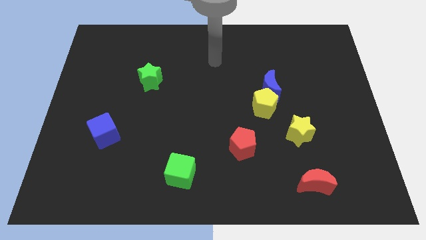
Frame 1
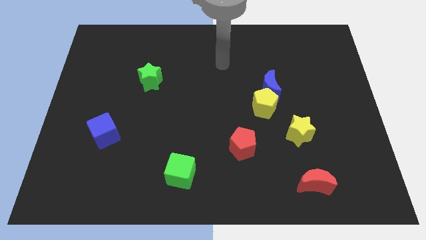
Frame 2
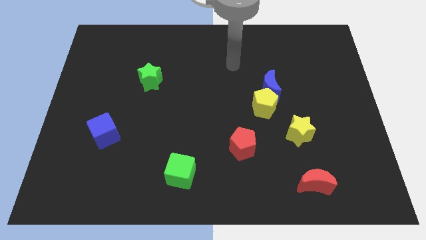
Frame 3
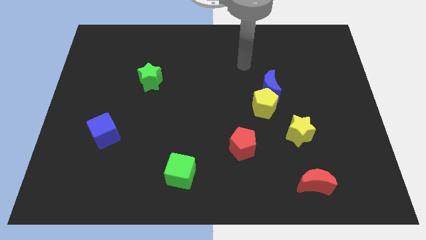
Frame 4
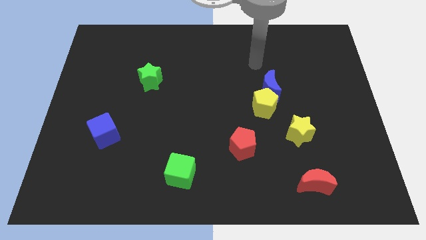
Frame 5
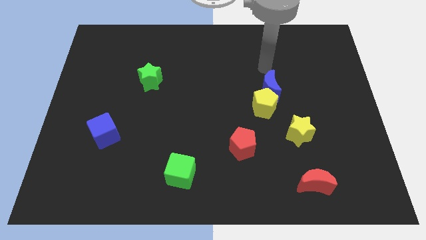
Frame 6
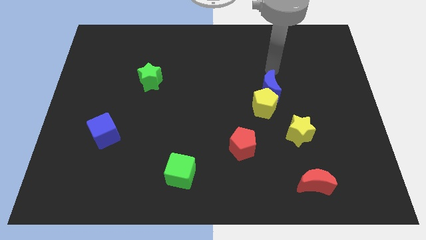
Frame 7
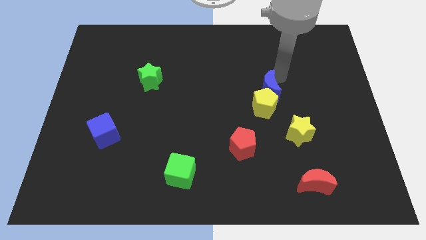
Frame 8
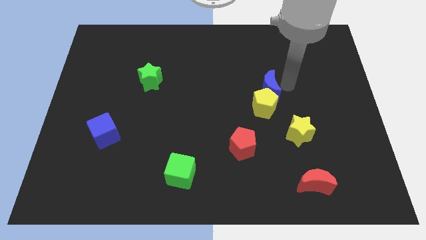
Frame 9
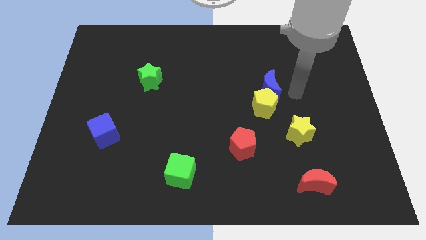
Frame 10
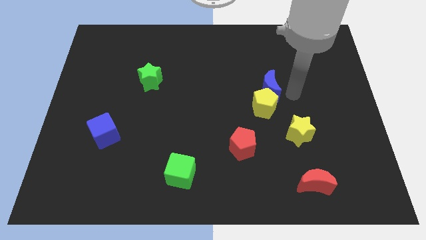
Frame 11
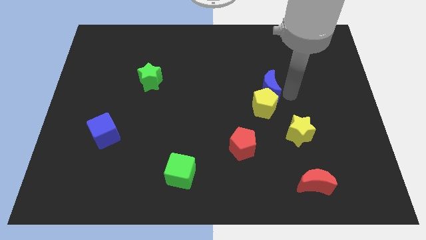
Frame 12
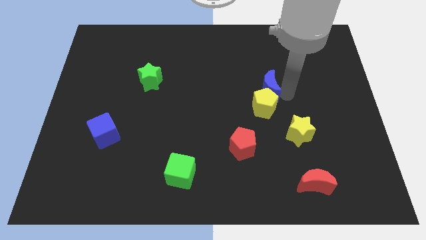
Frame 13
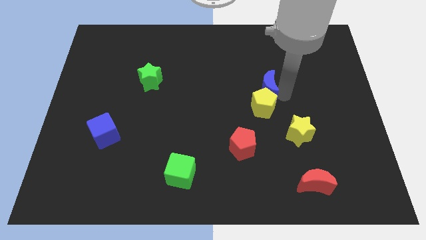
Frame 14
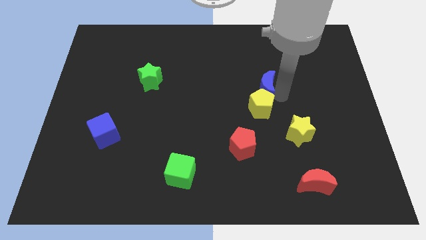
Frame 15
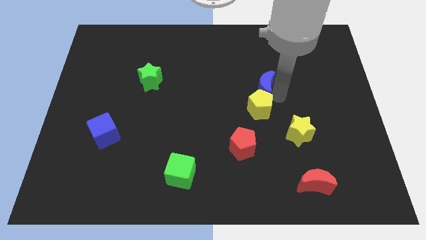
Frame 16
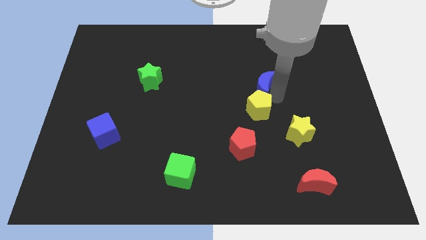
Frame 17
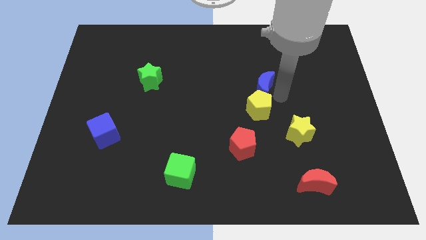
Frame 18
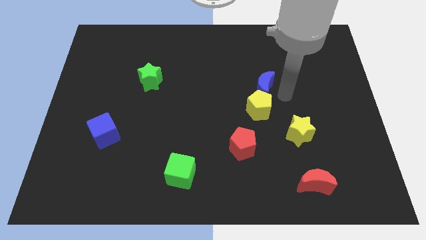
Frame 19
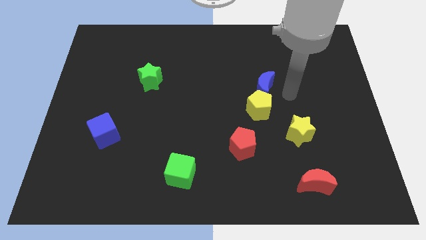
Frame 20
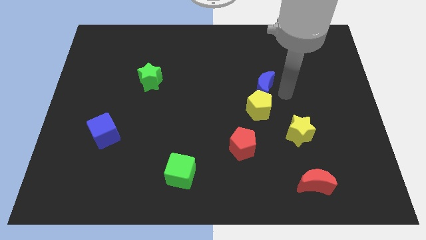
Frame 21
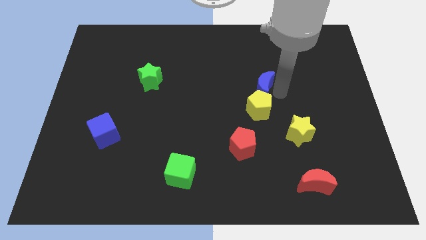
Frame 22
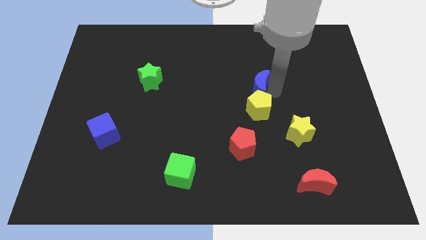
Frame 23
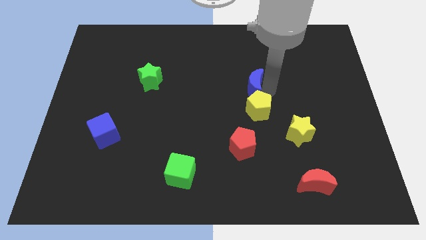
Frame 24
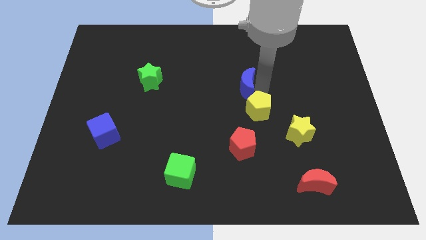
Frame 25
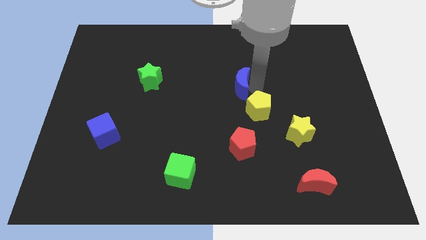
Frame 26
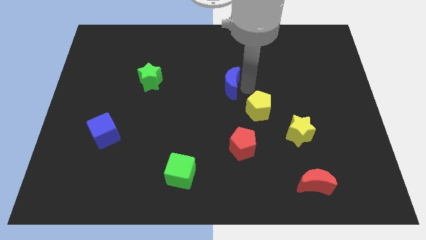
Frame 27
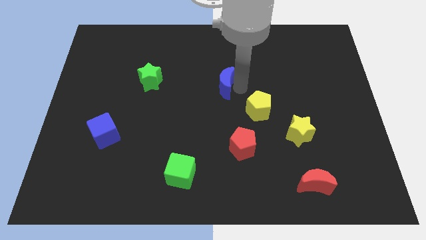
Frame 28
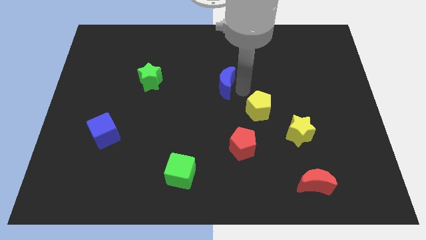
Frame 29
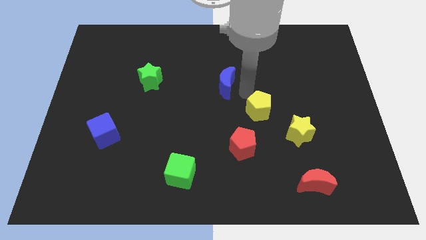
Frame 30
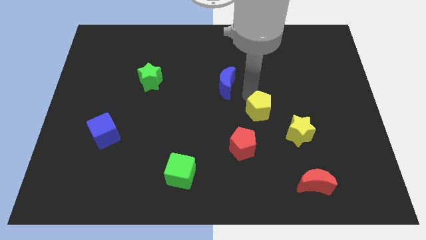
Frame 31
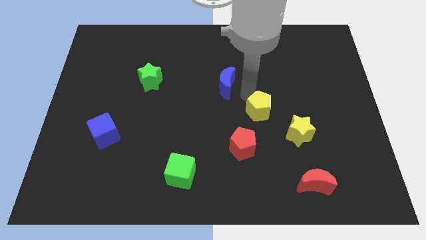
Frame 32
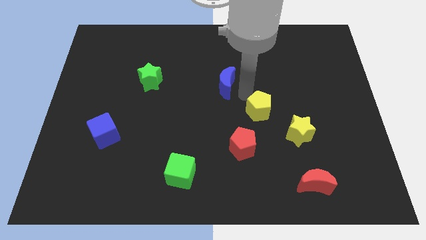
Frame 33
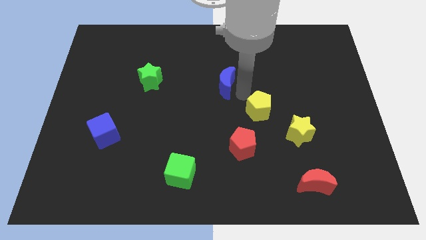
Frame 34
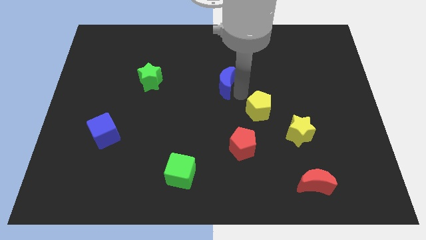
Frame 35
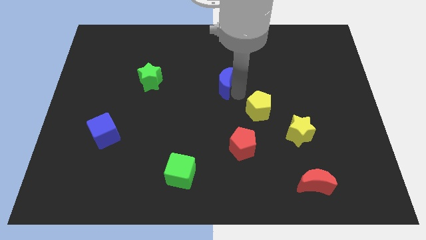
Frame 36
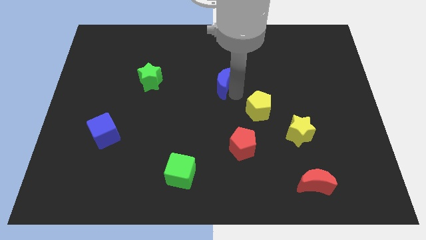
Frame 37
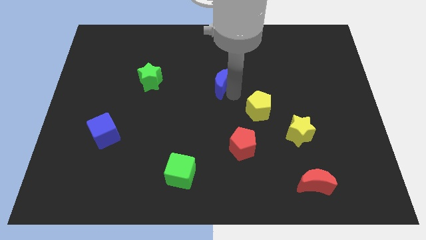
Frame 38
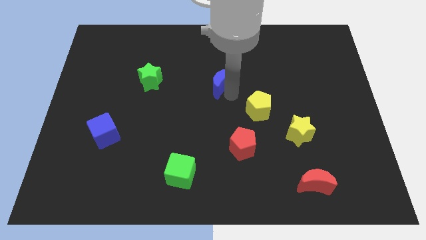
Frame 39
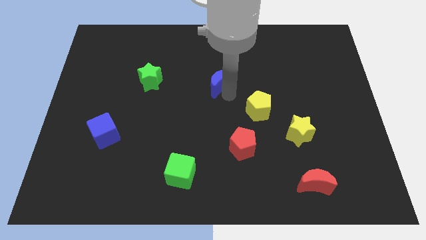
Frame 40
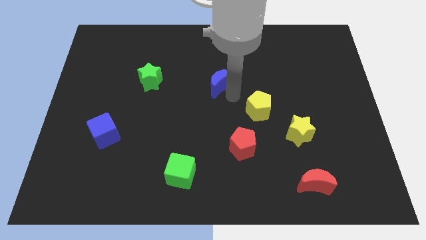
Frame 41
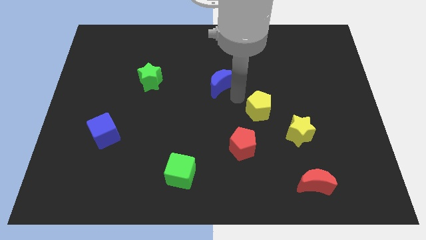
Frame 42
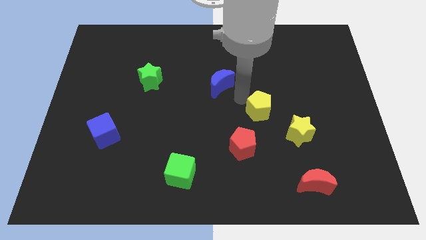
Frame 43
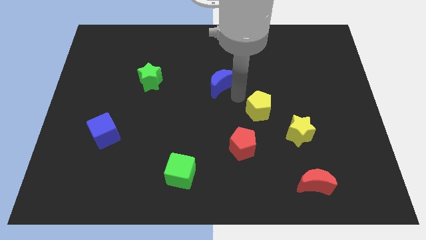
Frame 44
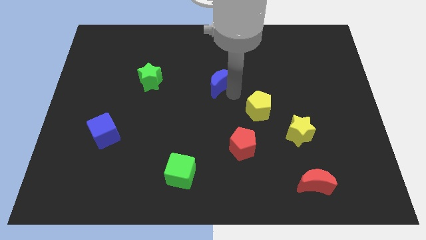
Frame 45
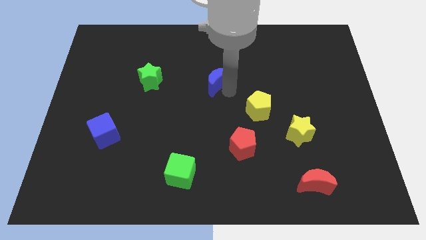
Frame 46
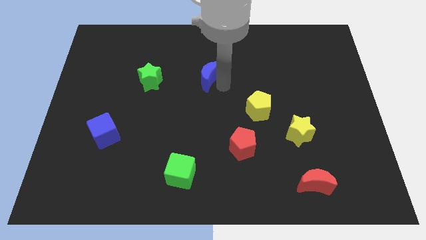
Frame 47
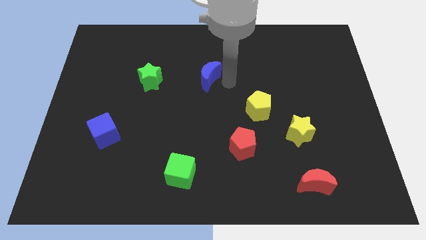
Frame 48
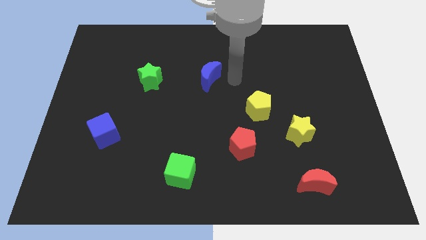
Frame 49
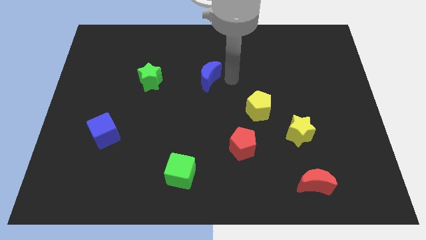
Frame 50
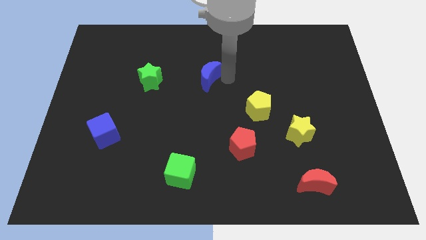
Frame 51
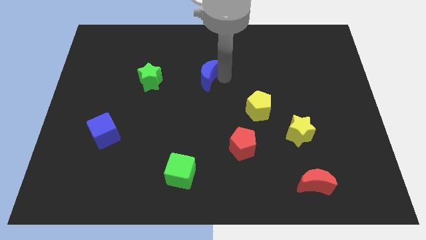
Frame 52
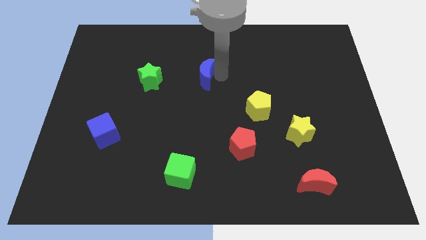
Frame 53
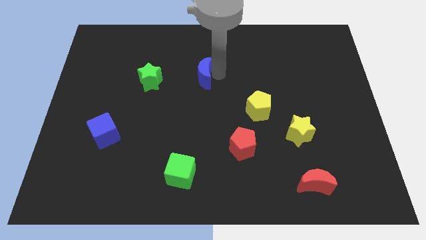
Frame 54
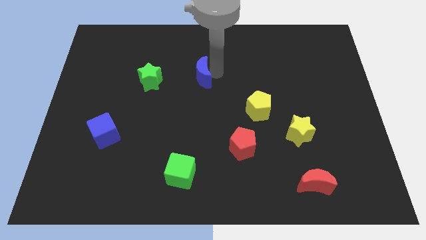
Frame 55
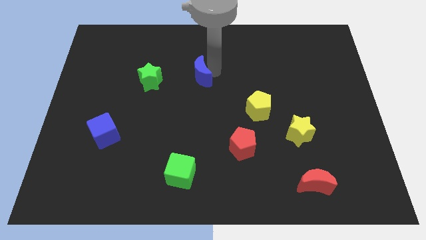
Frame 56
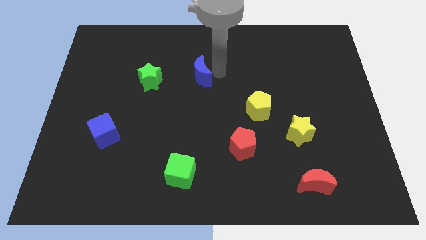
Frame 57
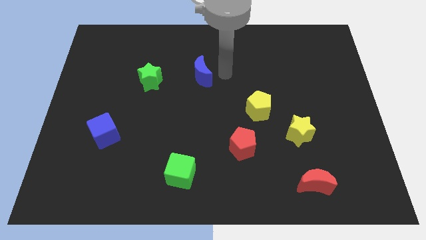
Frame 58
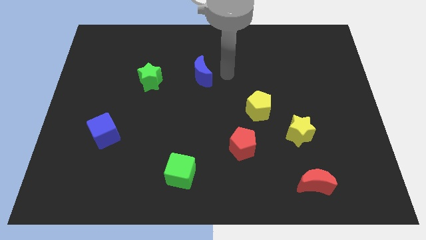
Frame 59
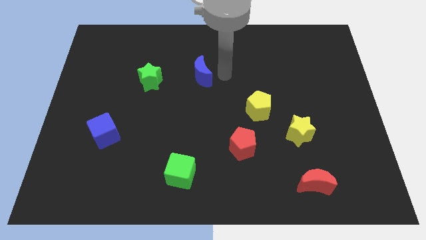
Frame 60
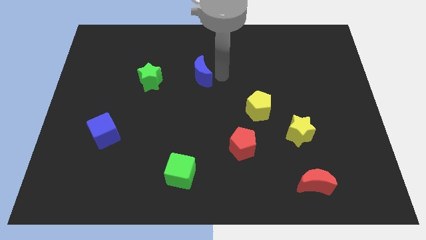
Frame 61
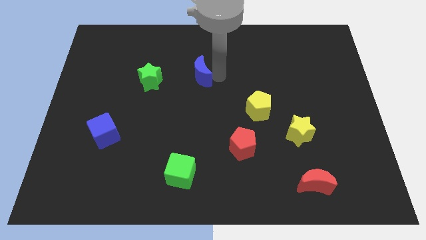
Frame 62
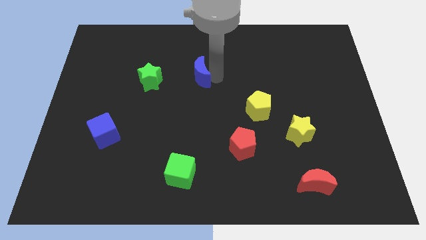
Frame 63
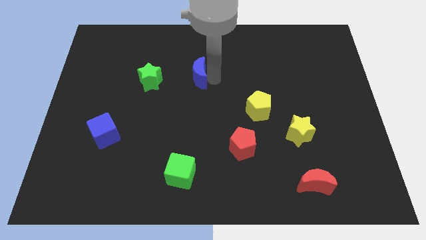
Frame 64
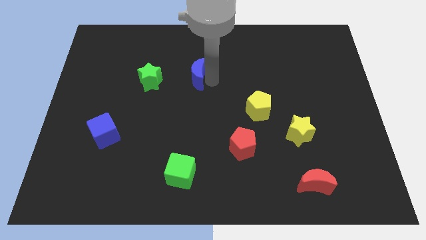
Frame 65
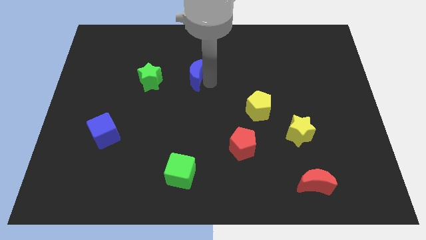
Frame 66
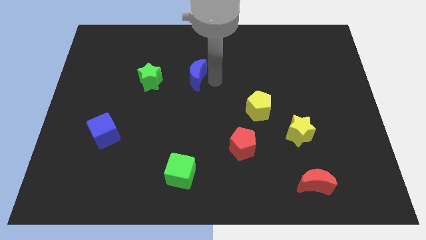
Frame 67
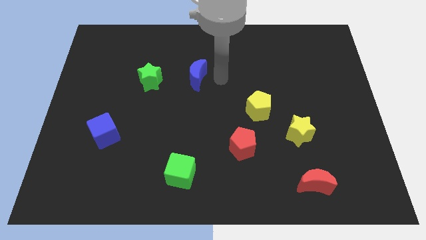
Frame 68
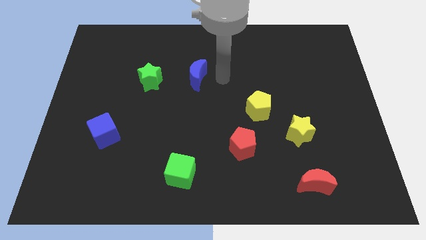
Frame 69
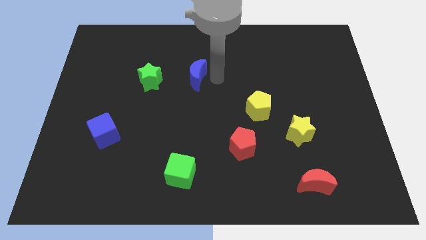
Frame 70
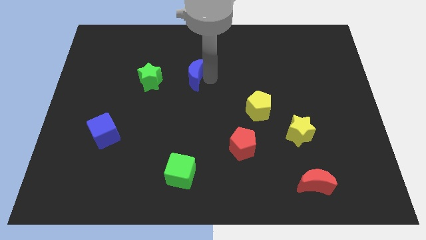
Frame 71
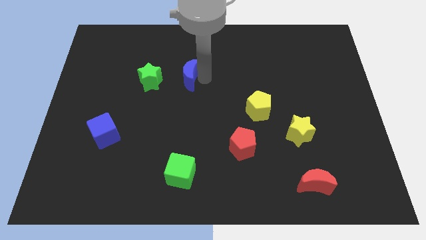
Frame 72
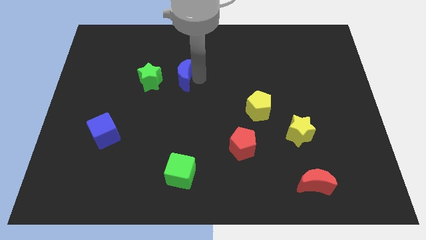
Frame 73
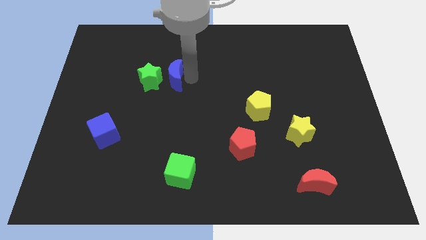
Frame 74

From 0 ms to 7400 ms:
put the blue moon close to the green star

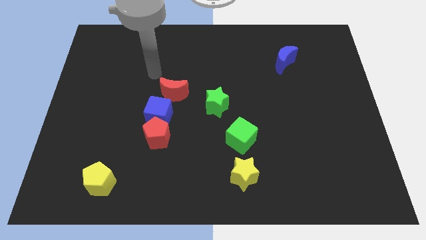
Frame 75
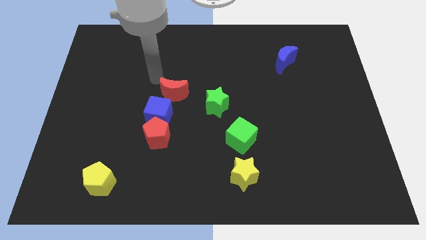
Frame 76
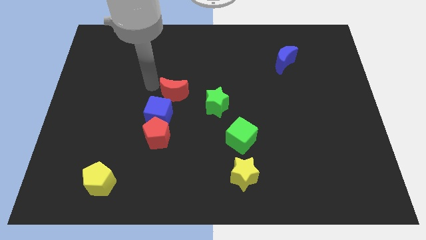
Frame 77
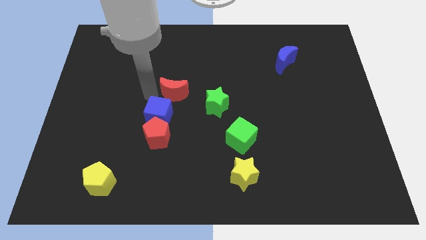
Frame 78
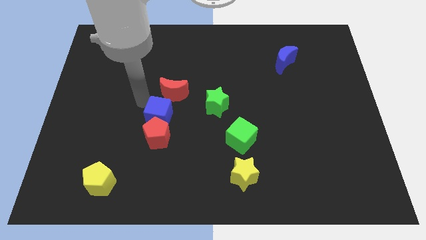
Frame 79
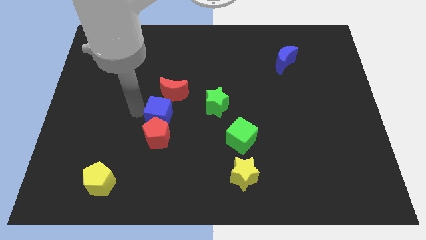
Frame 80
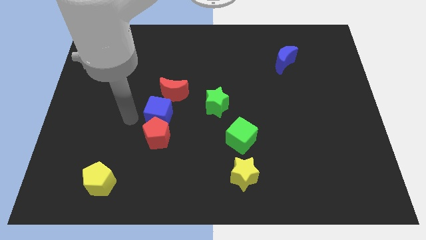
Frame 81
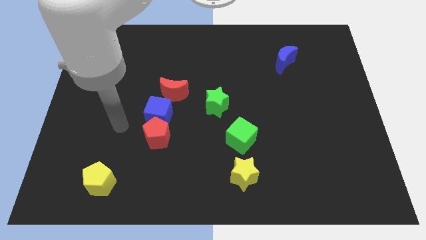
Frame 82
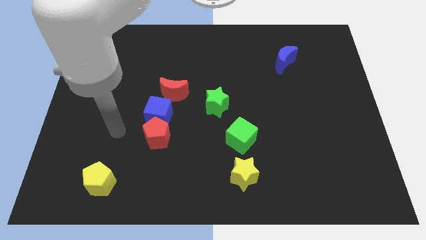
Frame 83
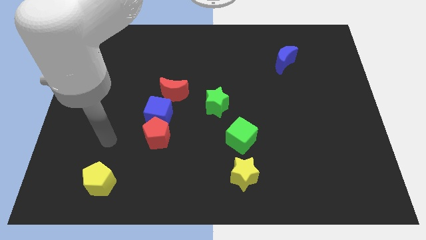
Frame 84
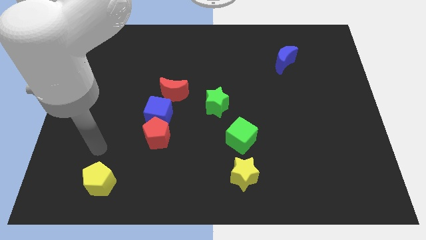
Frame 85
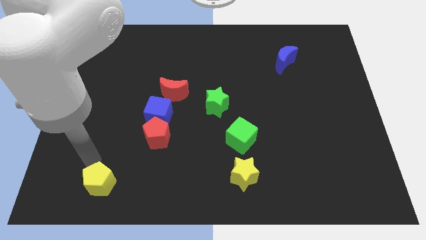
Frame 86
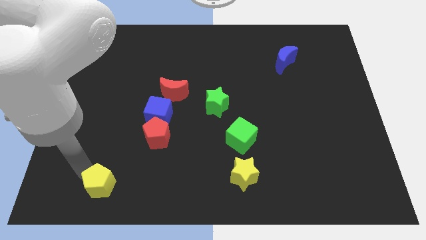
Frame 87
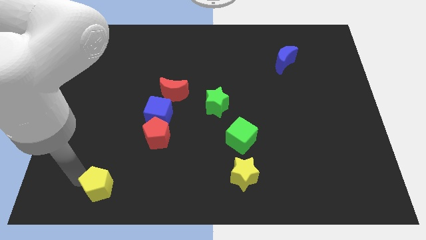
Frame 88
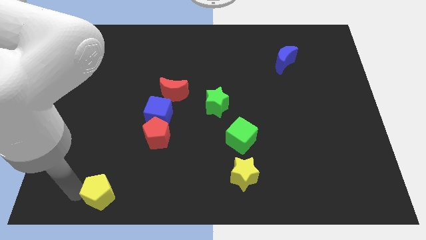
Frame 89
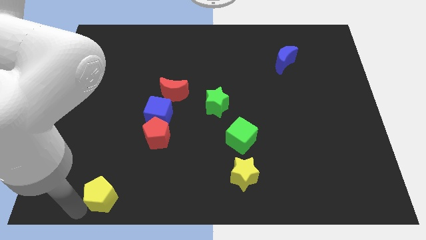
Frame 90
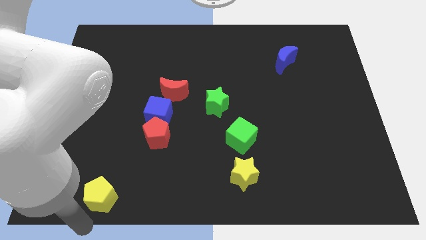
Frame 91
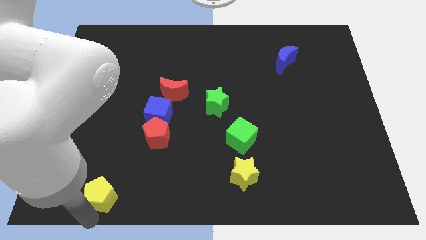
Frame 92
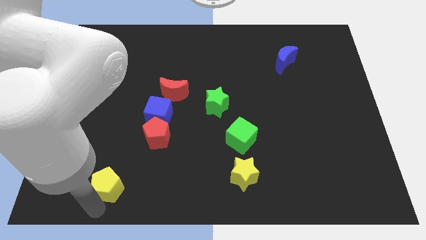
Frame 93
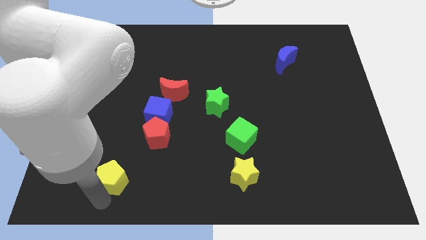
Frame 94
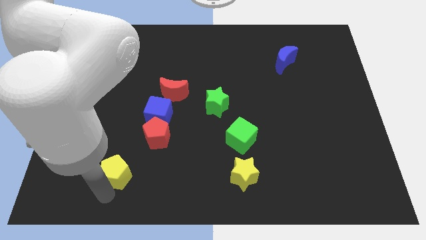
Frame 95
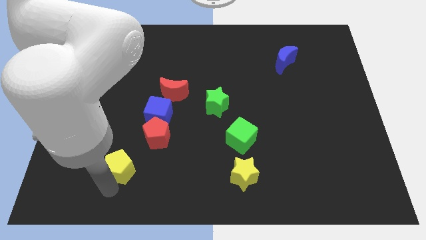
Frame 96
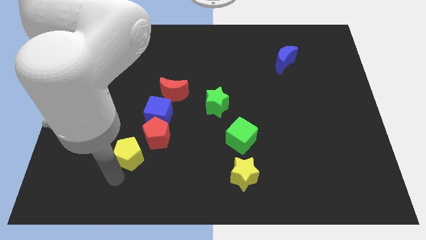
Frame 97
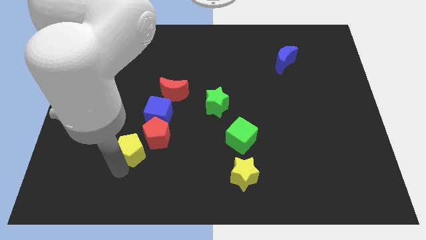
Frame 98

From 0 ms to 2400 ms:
slide the yellow pentagon next to the red pentagon
